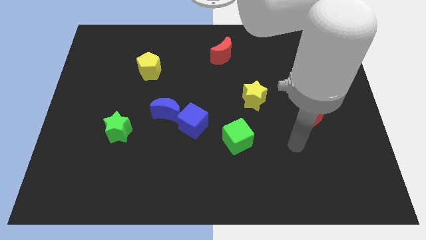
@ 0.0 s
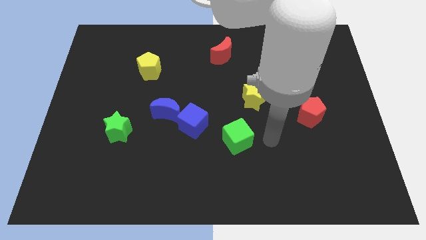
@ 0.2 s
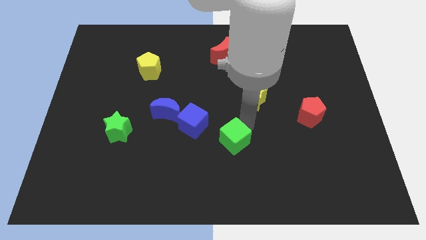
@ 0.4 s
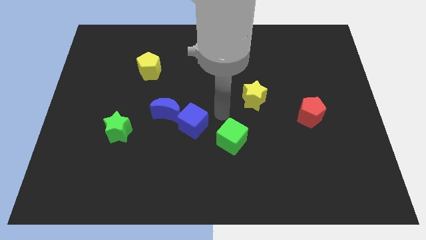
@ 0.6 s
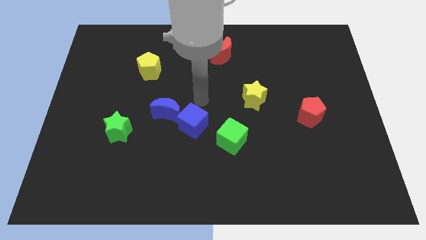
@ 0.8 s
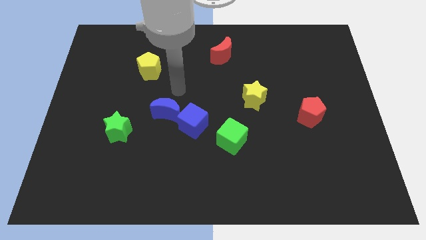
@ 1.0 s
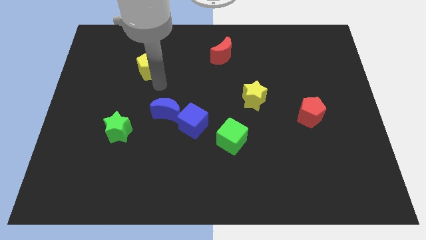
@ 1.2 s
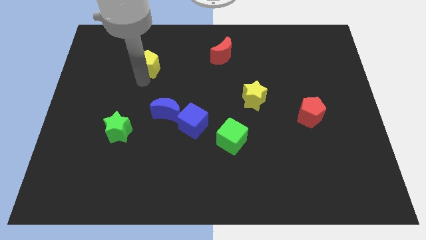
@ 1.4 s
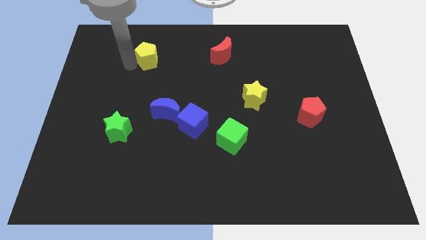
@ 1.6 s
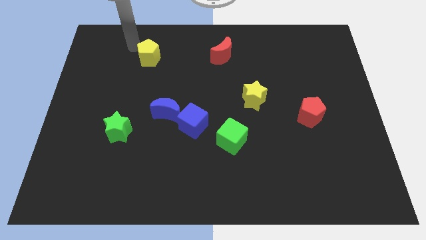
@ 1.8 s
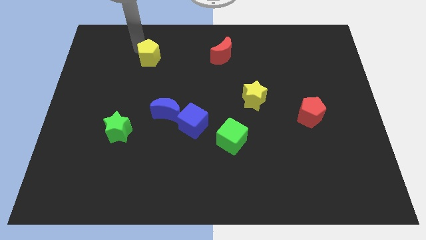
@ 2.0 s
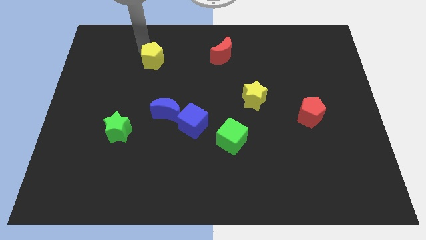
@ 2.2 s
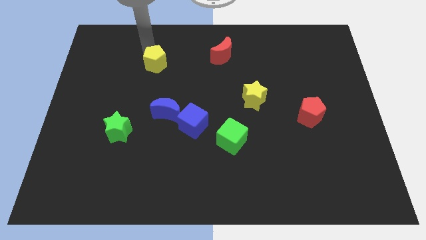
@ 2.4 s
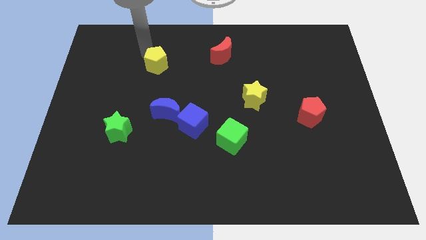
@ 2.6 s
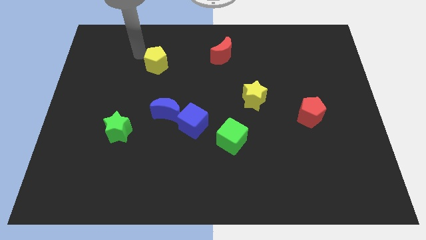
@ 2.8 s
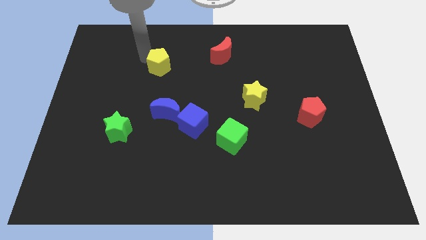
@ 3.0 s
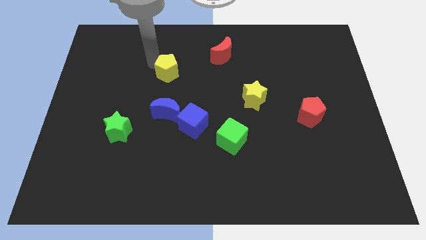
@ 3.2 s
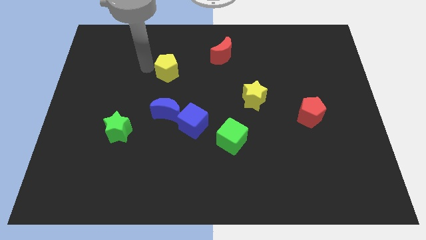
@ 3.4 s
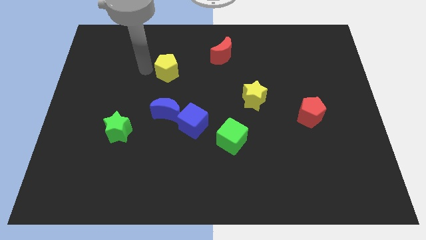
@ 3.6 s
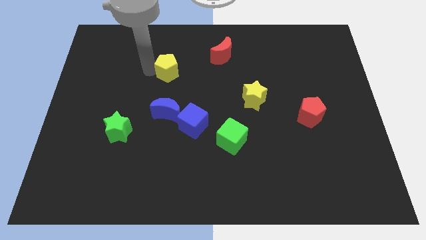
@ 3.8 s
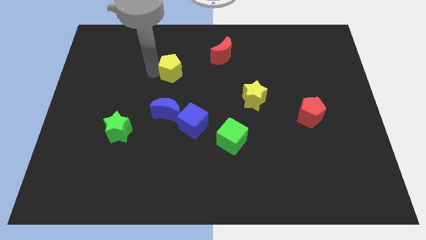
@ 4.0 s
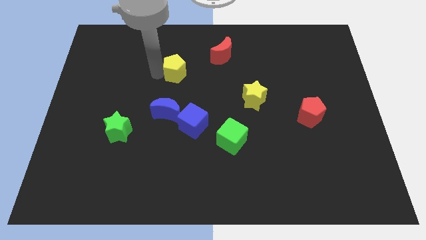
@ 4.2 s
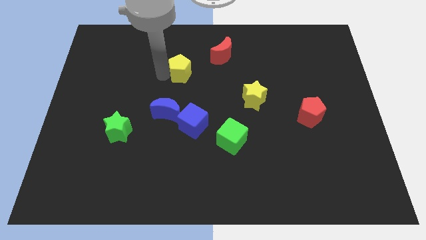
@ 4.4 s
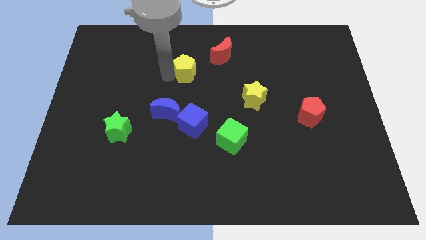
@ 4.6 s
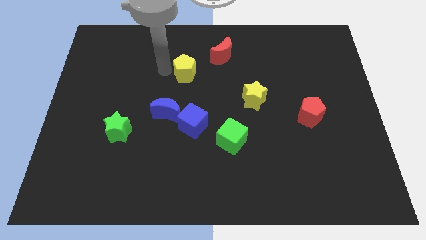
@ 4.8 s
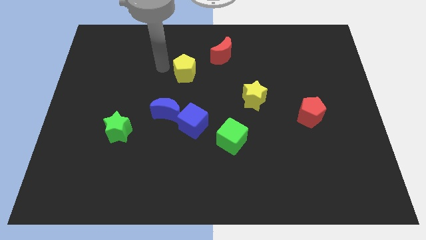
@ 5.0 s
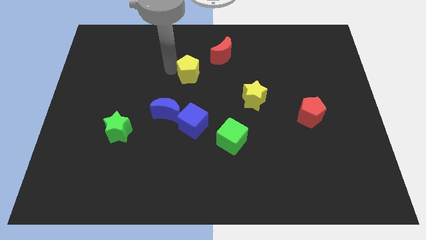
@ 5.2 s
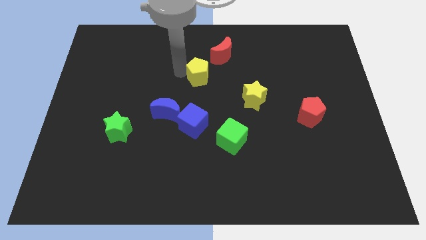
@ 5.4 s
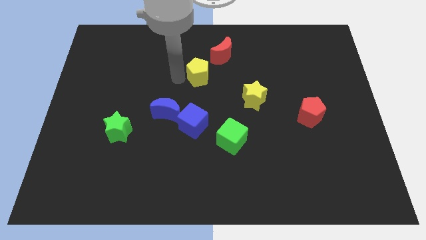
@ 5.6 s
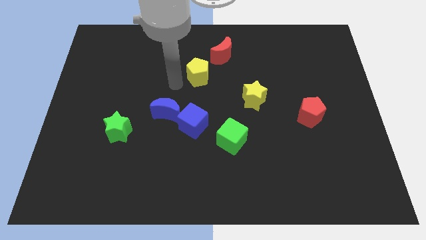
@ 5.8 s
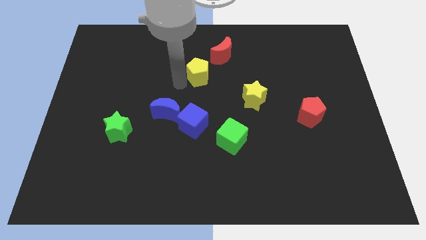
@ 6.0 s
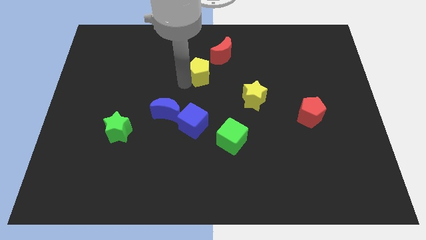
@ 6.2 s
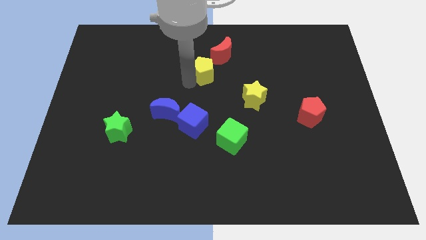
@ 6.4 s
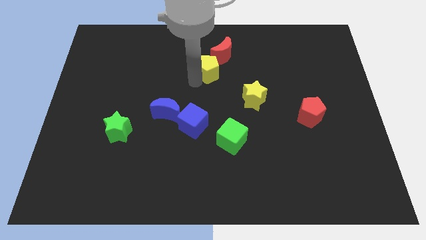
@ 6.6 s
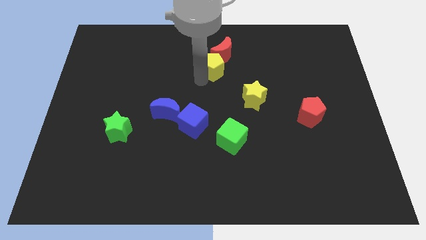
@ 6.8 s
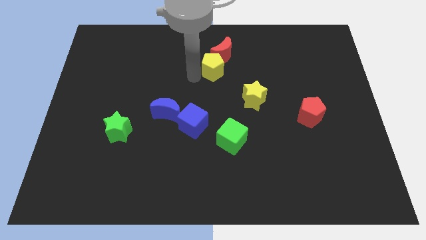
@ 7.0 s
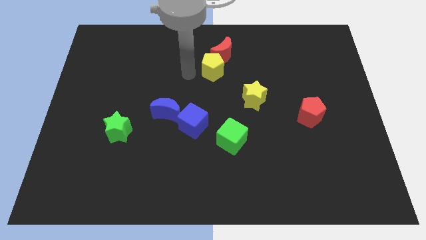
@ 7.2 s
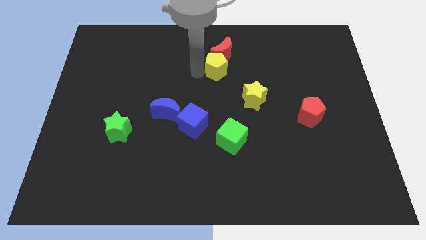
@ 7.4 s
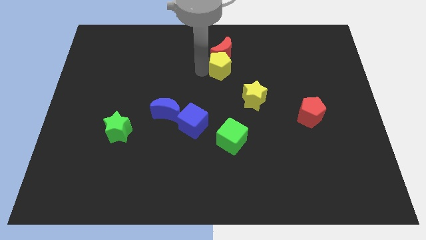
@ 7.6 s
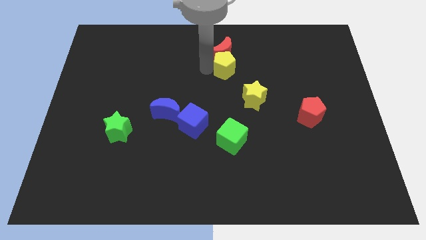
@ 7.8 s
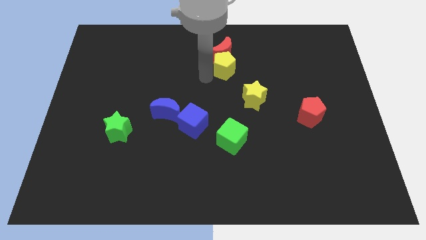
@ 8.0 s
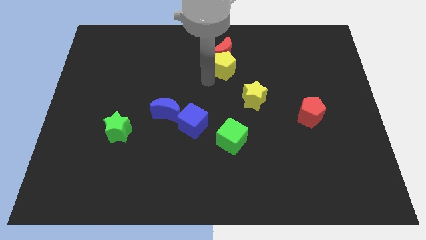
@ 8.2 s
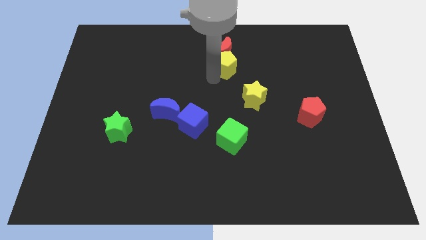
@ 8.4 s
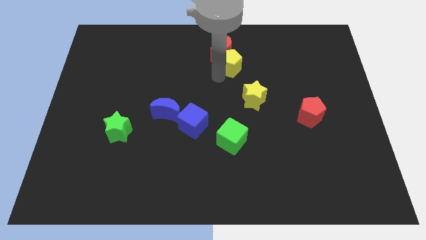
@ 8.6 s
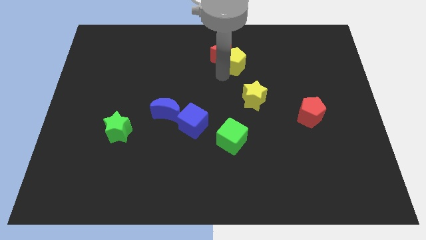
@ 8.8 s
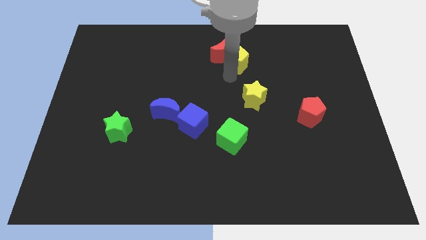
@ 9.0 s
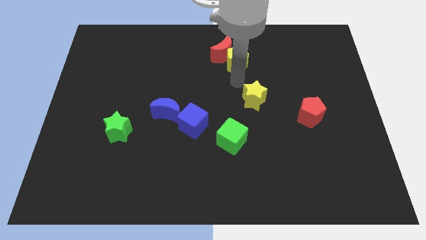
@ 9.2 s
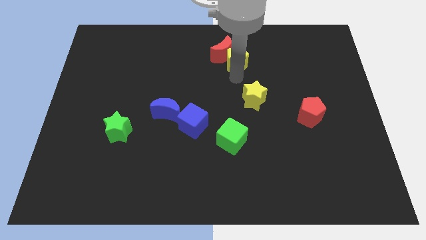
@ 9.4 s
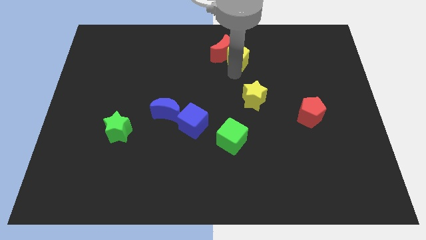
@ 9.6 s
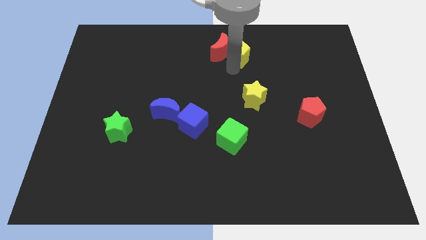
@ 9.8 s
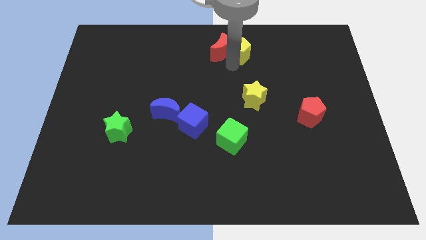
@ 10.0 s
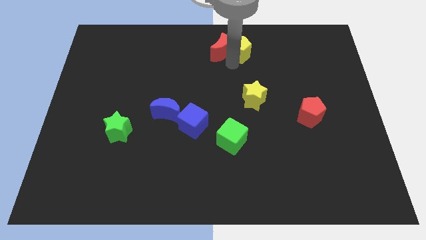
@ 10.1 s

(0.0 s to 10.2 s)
slide the yellow pentagon to the towards your base

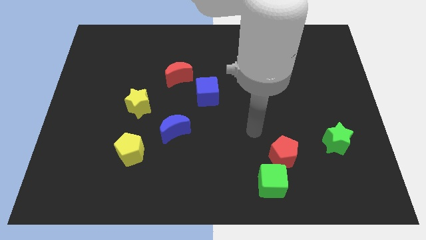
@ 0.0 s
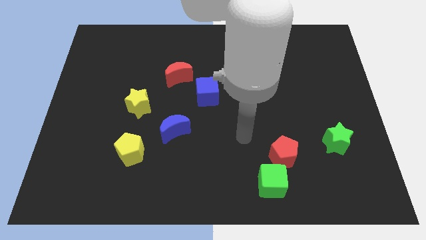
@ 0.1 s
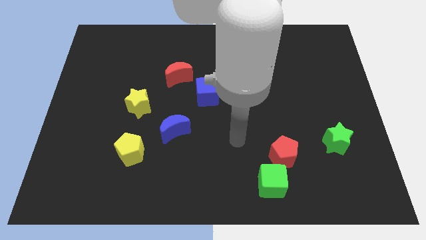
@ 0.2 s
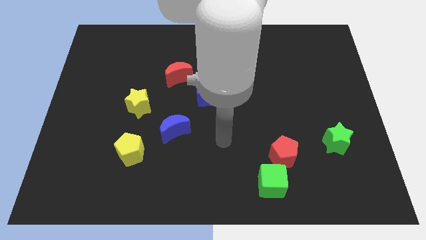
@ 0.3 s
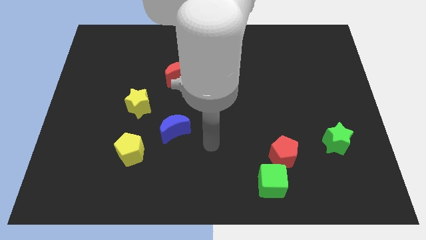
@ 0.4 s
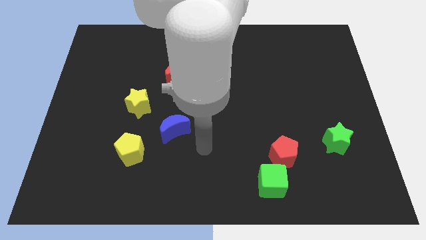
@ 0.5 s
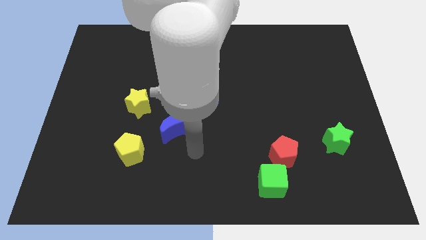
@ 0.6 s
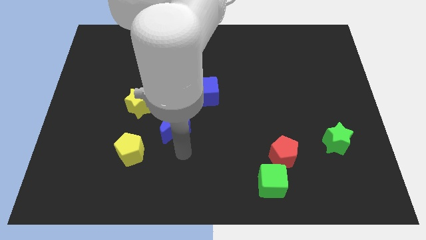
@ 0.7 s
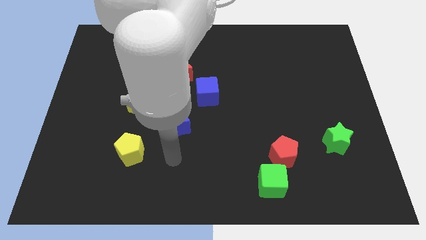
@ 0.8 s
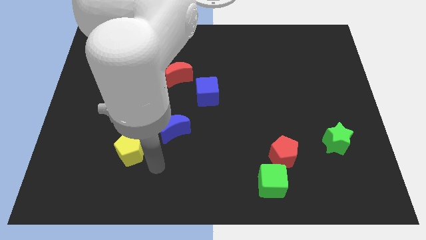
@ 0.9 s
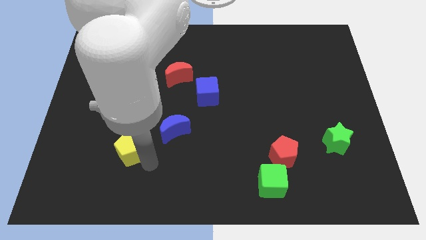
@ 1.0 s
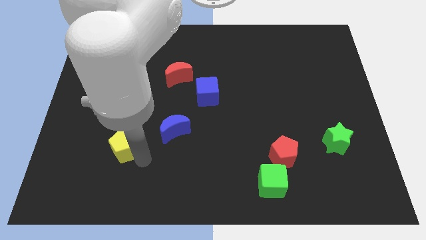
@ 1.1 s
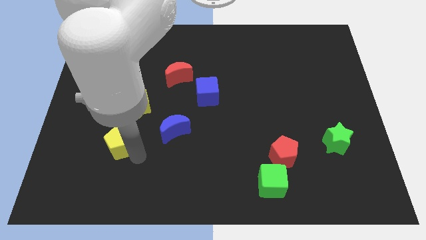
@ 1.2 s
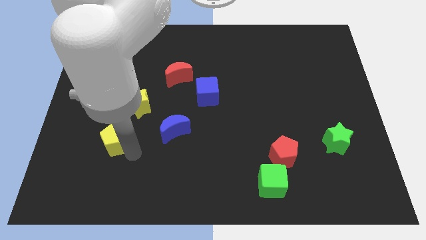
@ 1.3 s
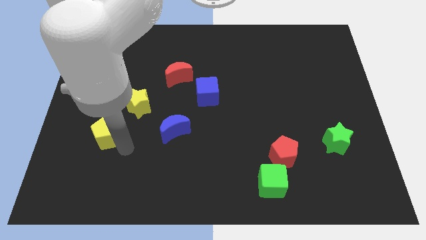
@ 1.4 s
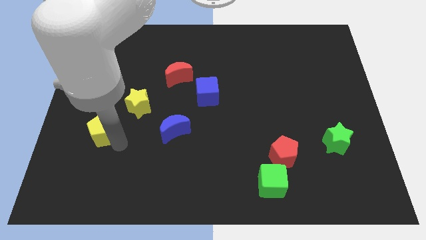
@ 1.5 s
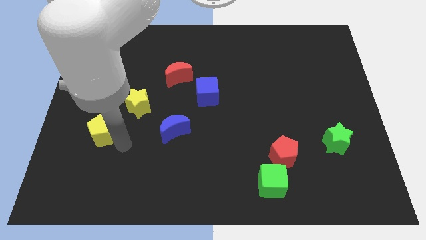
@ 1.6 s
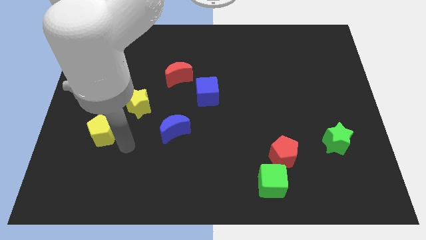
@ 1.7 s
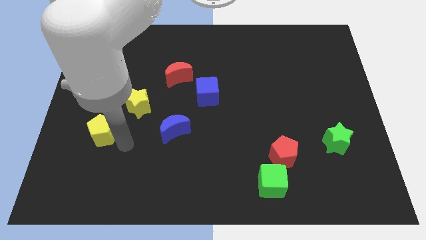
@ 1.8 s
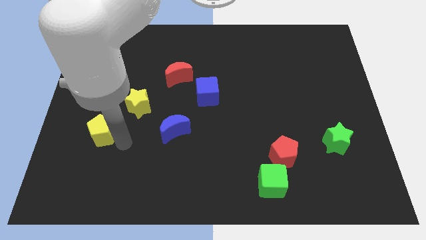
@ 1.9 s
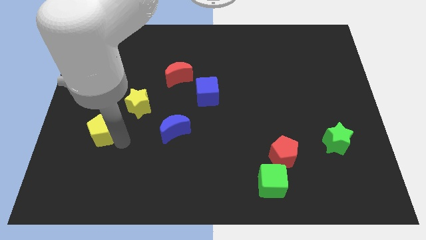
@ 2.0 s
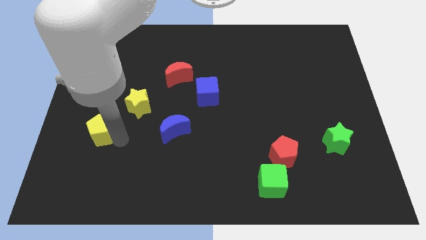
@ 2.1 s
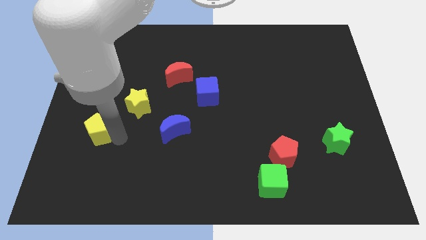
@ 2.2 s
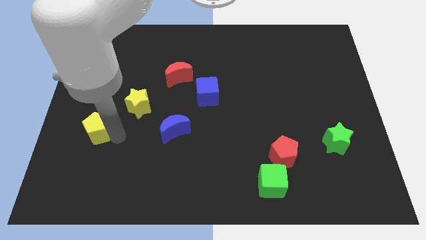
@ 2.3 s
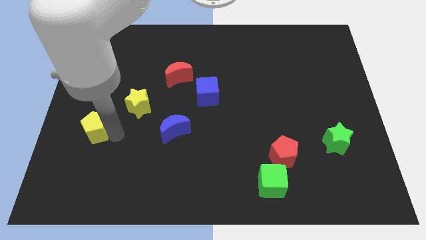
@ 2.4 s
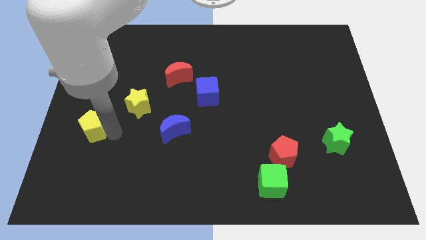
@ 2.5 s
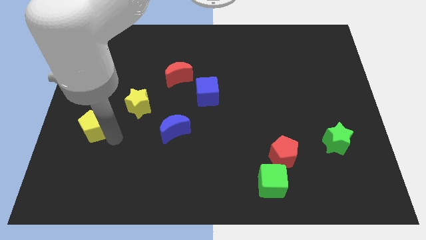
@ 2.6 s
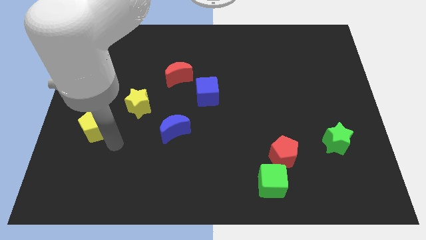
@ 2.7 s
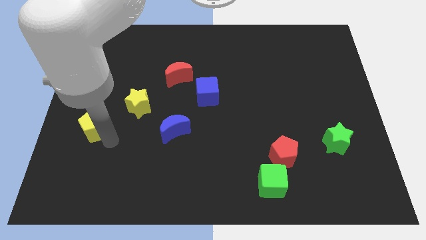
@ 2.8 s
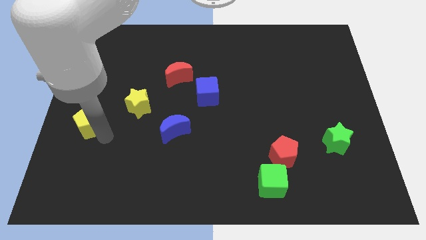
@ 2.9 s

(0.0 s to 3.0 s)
push the yellow pentagon to the left side
